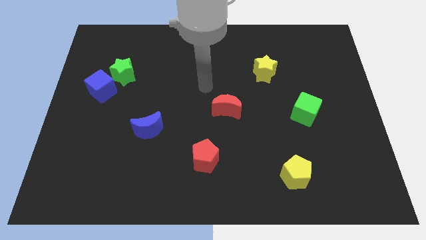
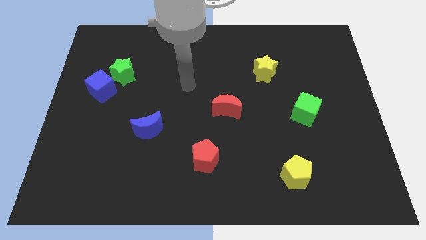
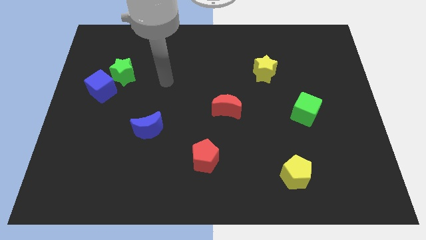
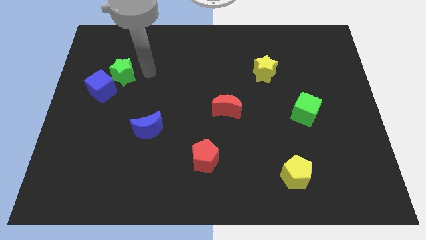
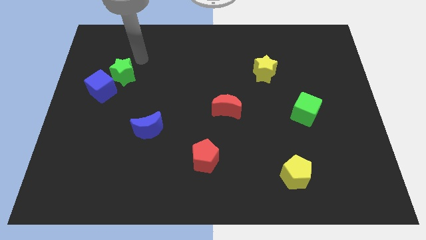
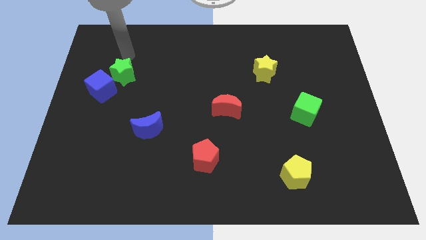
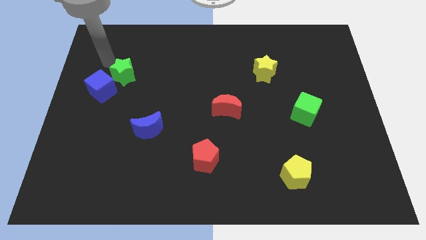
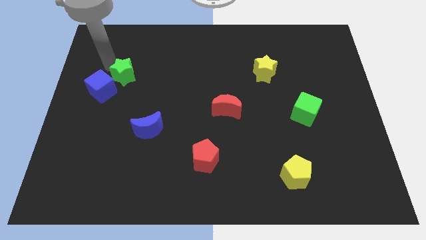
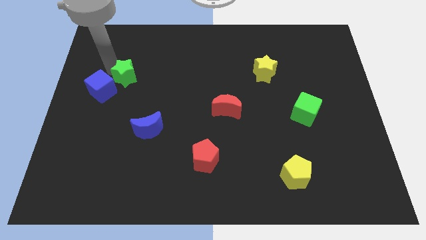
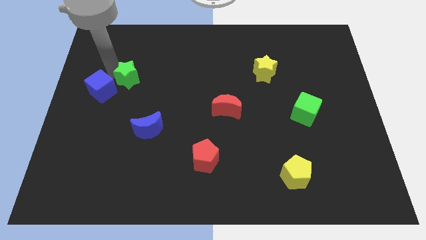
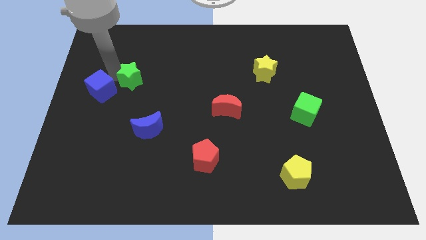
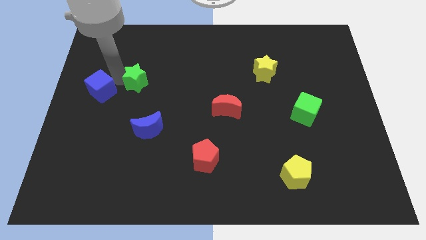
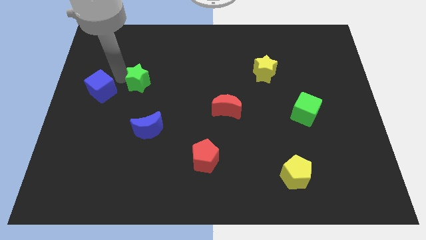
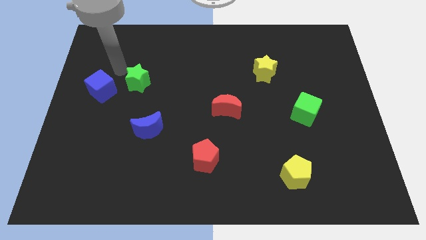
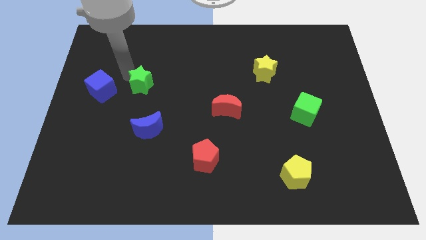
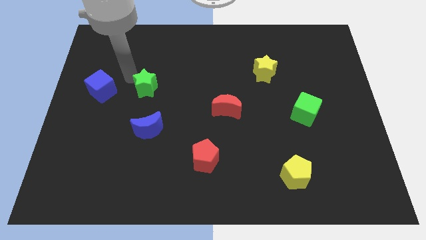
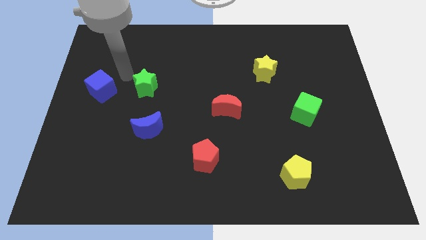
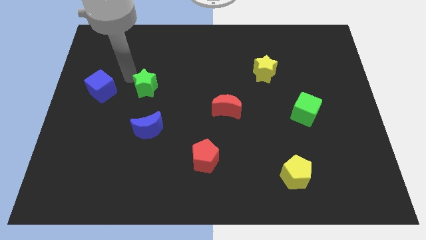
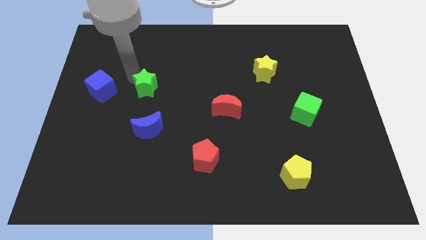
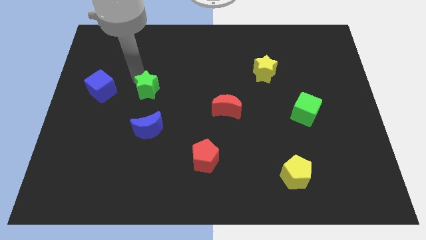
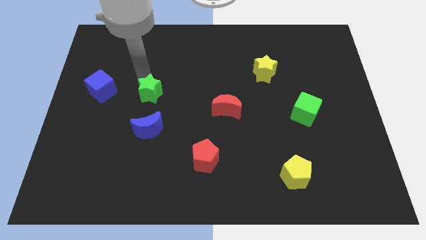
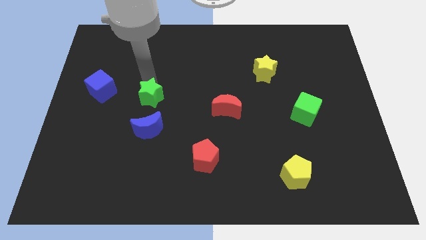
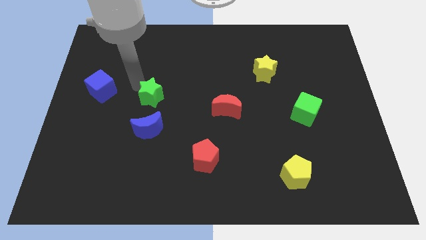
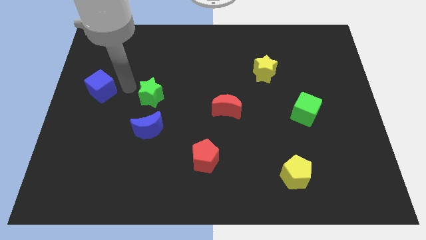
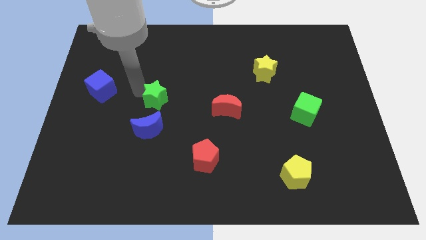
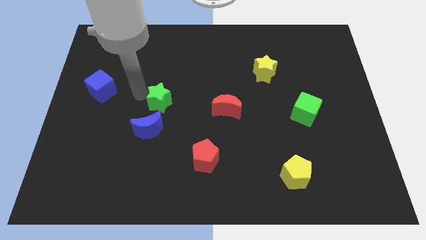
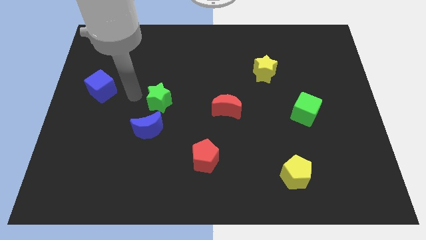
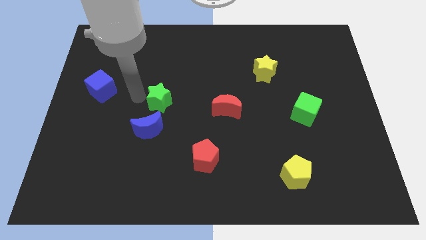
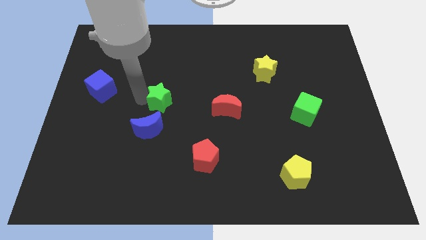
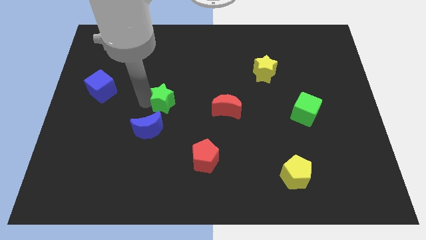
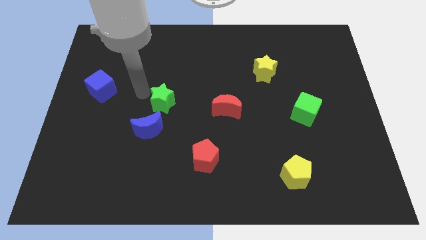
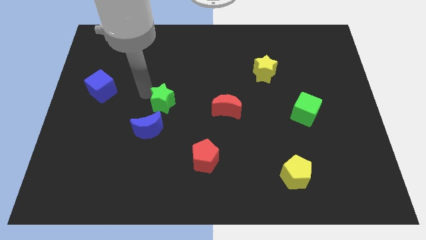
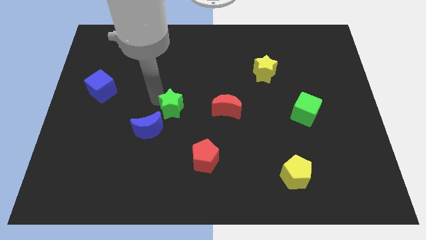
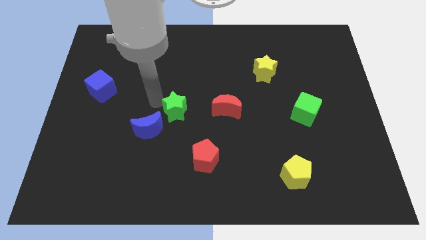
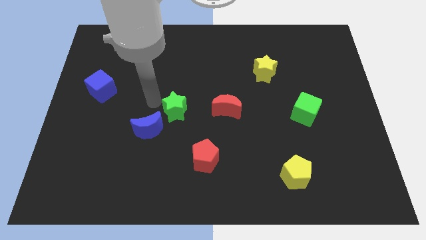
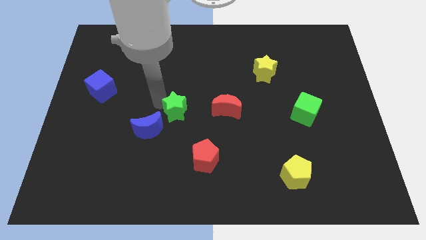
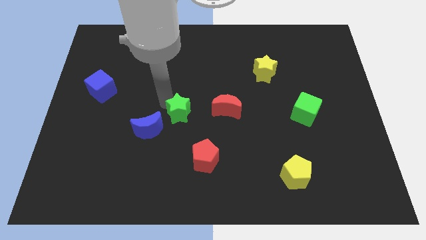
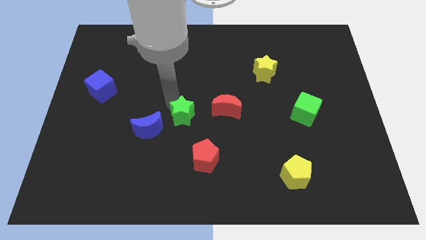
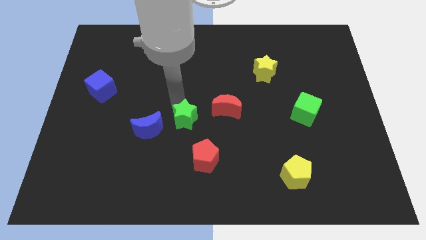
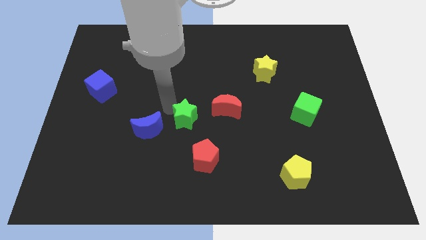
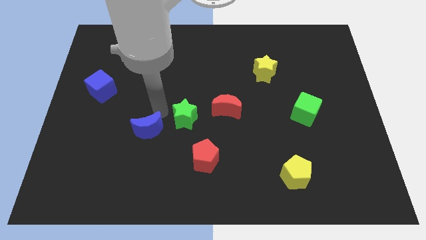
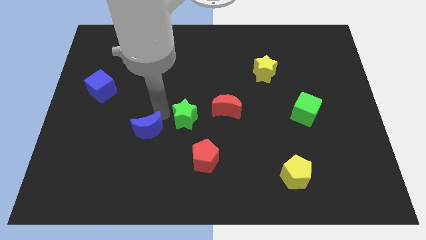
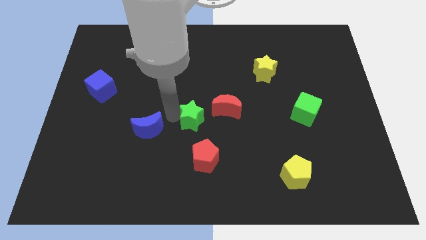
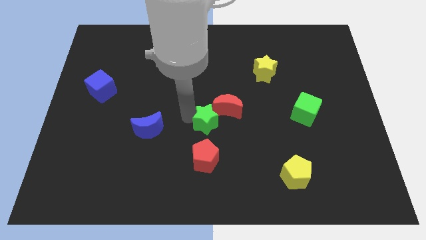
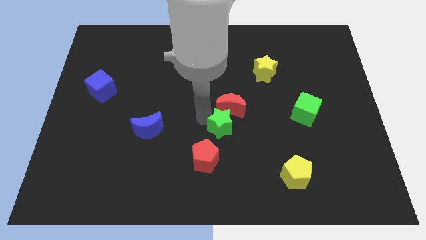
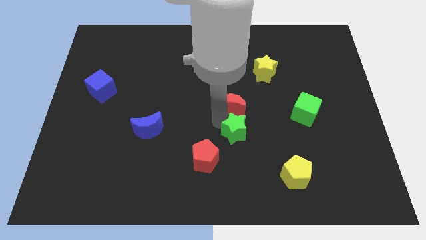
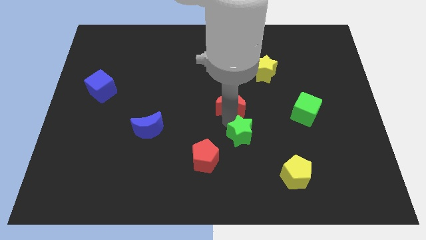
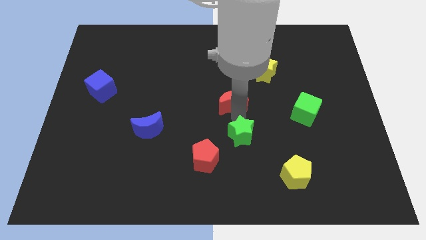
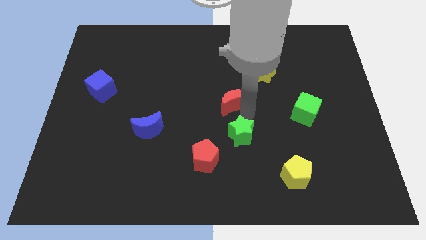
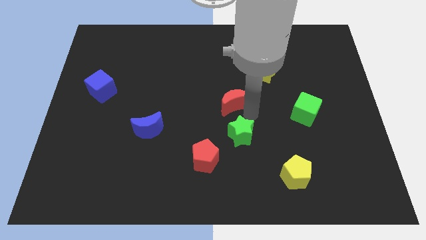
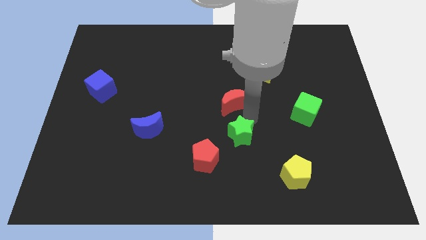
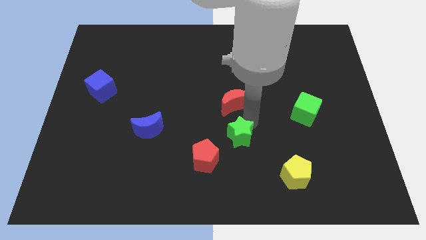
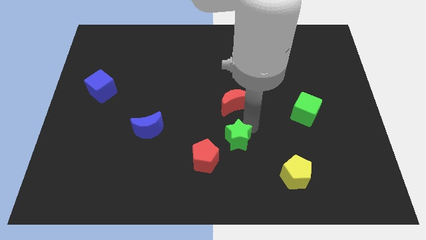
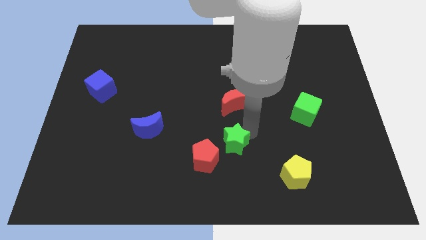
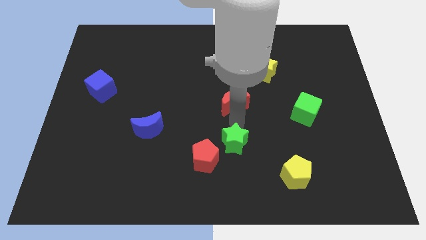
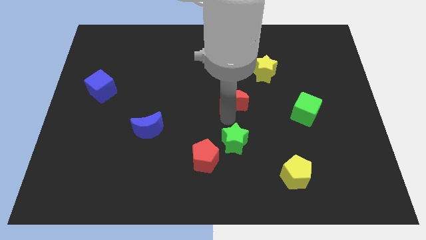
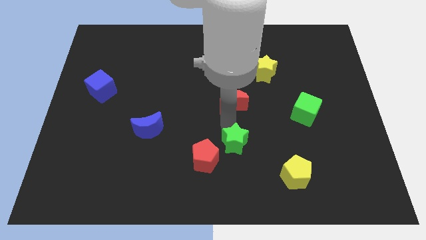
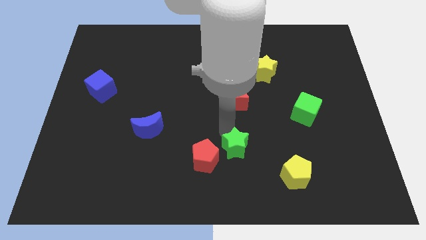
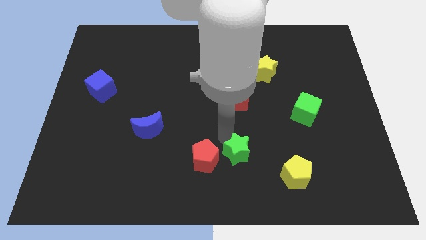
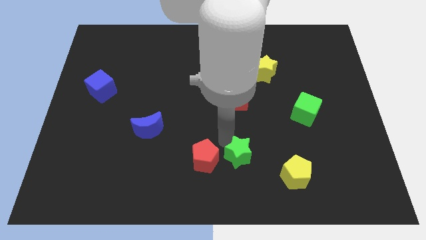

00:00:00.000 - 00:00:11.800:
push the green star just left of the yellow pentagon

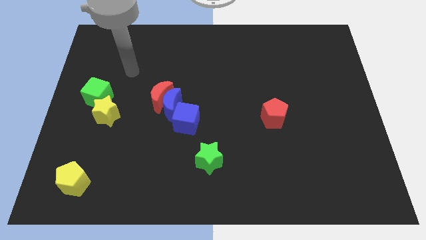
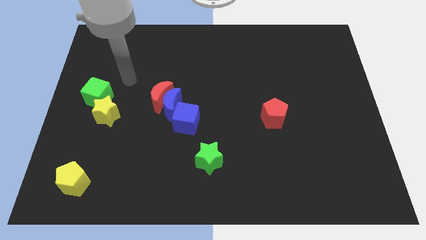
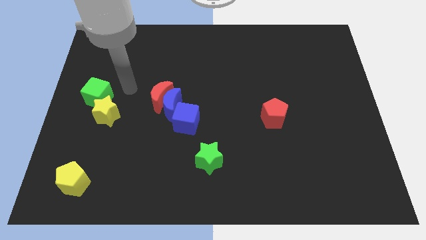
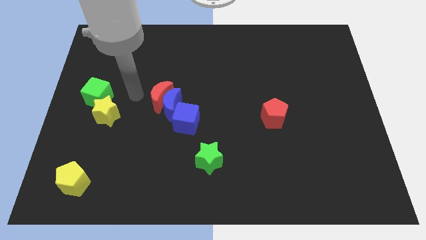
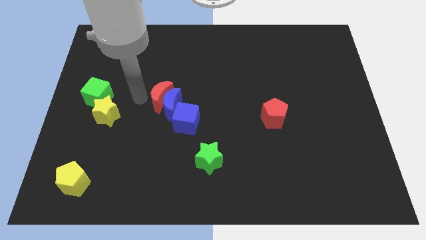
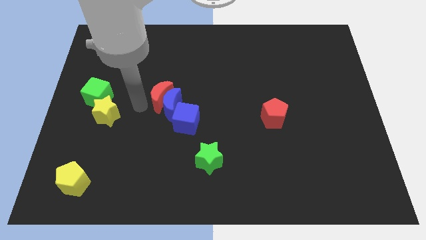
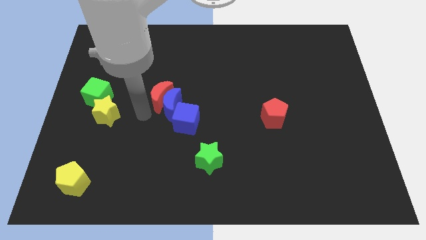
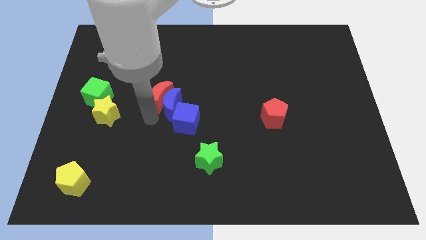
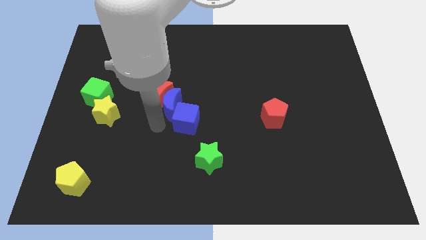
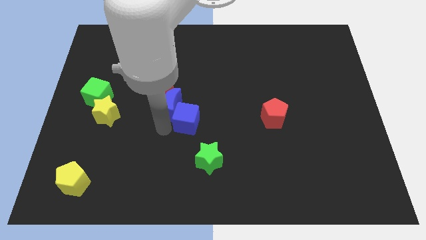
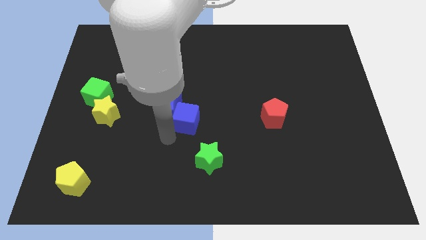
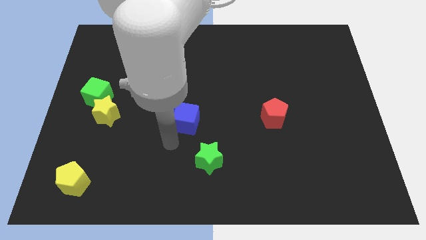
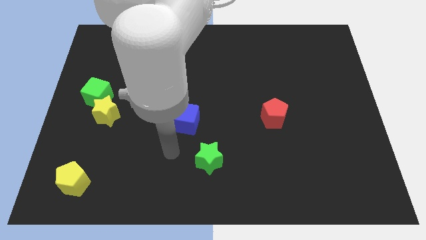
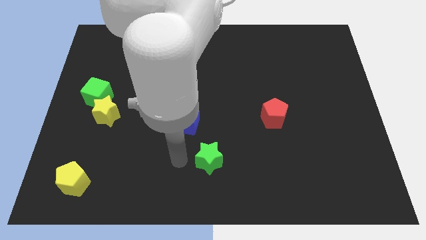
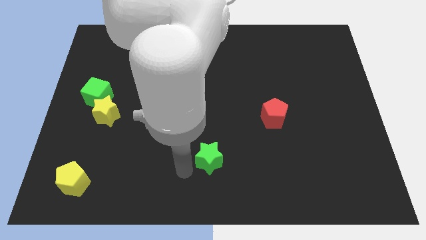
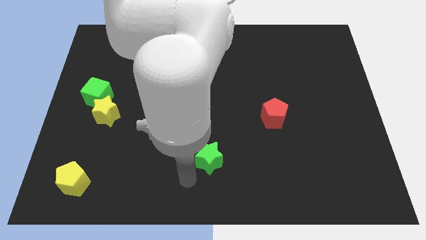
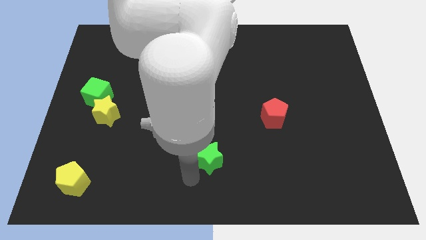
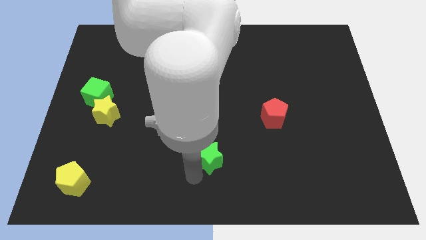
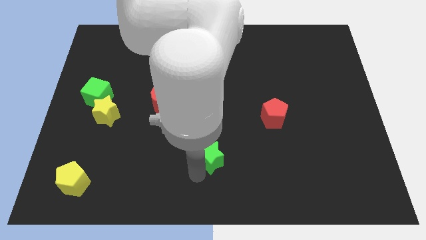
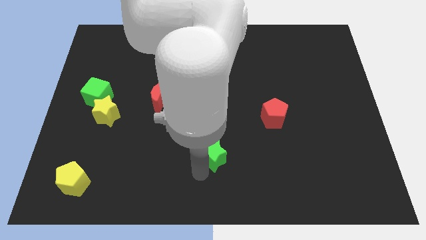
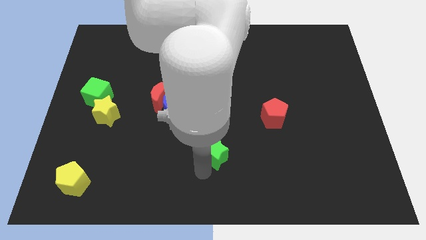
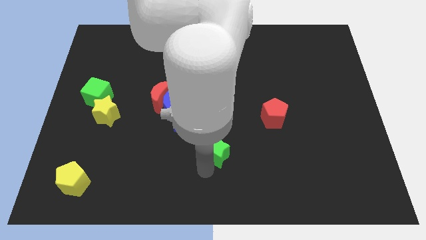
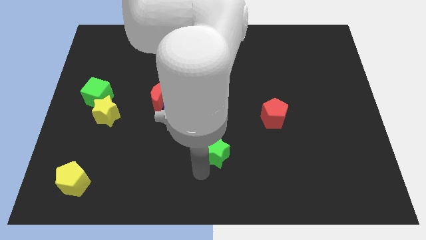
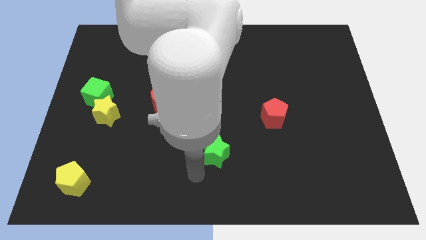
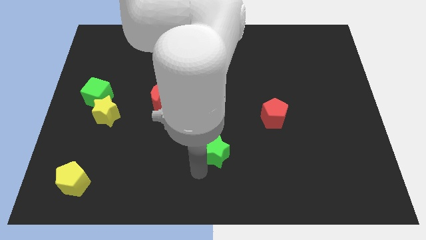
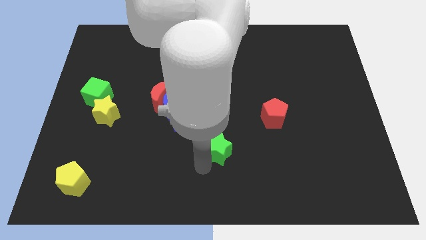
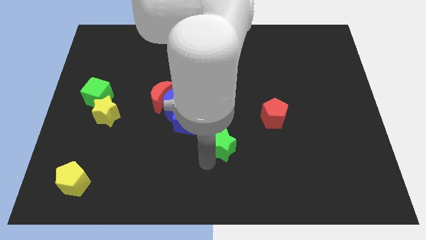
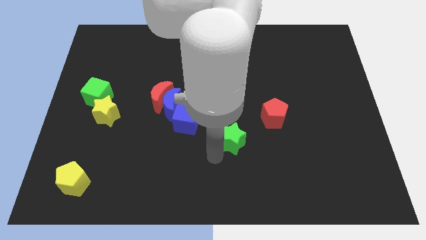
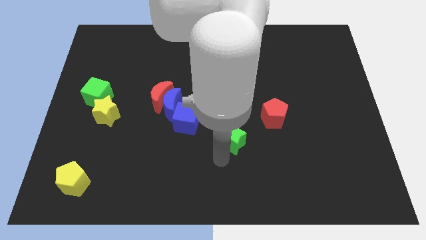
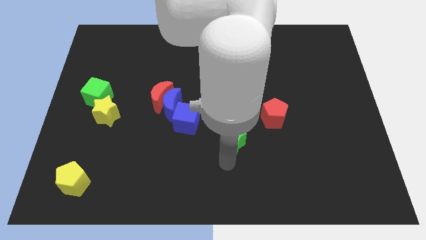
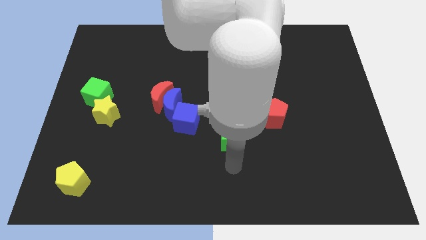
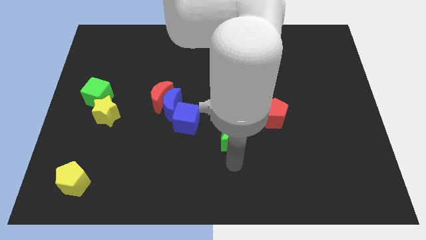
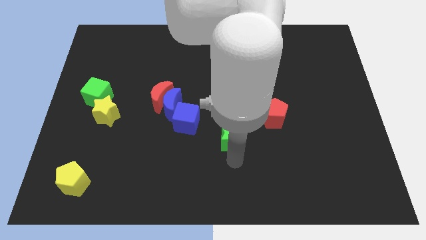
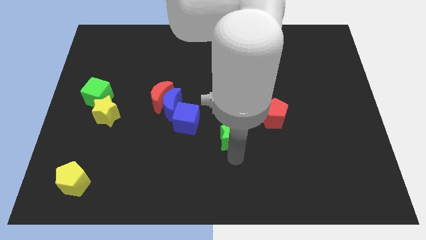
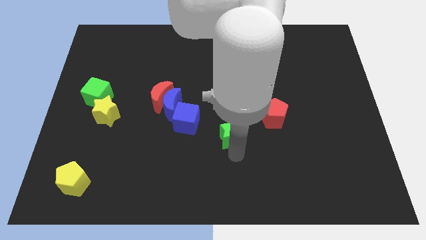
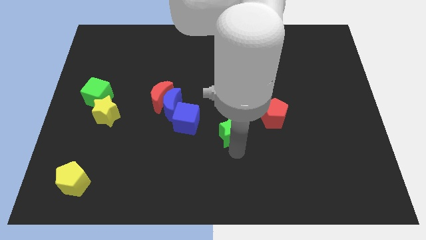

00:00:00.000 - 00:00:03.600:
push the green star left of the red pentagon
